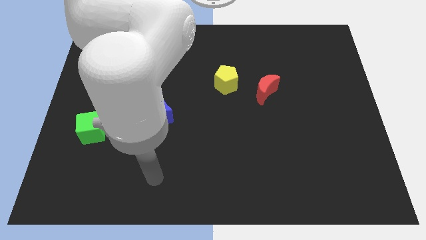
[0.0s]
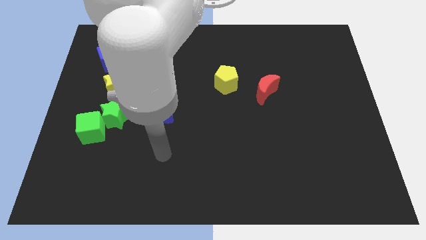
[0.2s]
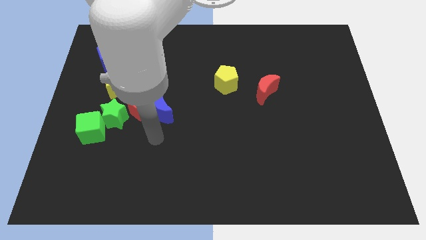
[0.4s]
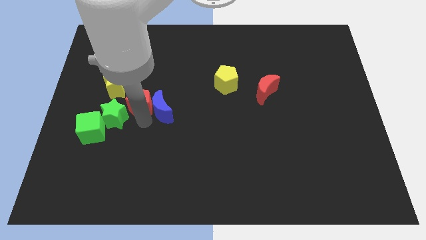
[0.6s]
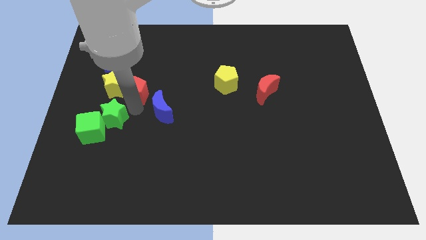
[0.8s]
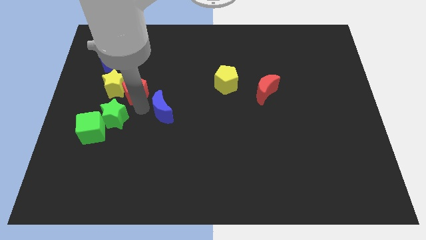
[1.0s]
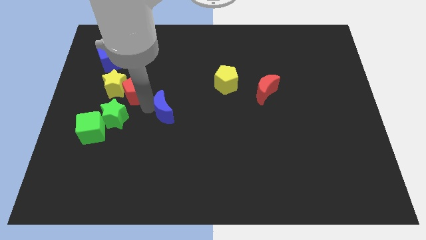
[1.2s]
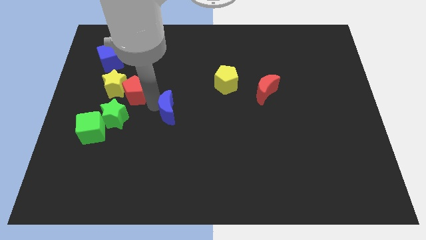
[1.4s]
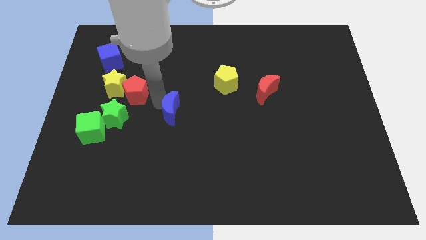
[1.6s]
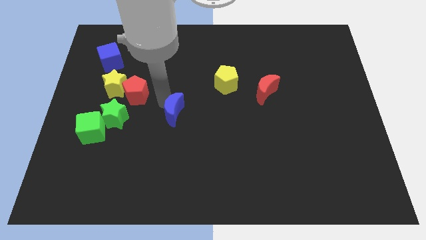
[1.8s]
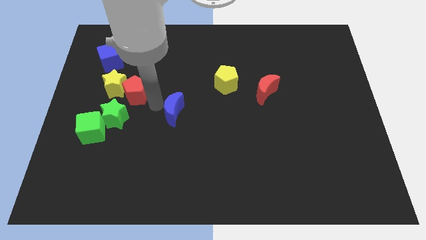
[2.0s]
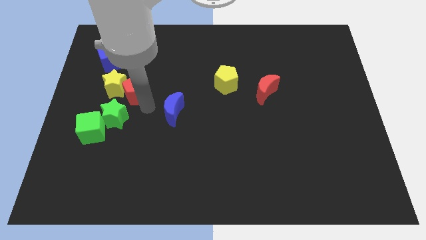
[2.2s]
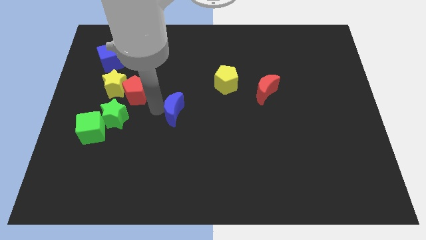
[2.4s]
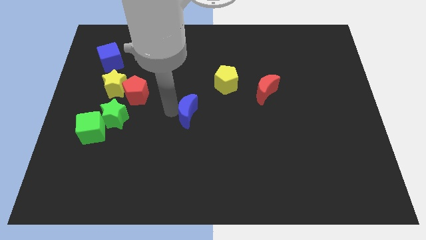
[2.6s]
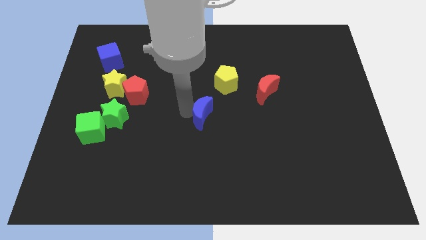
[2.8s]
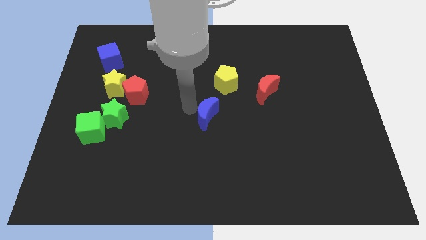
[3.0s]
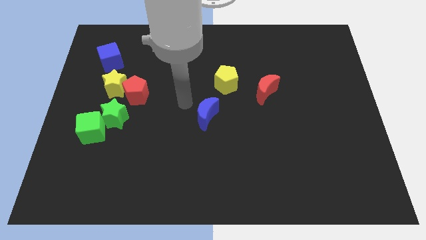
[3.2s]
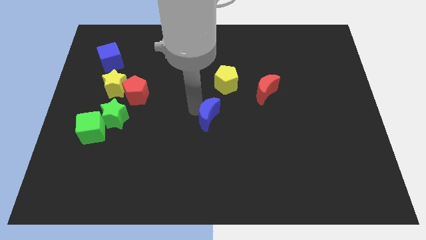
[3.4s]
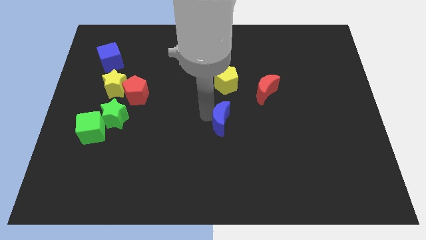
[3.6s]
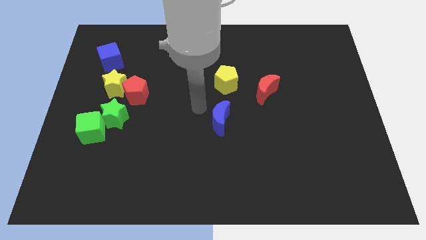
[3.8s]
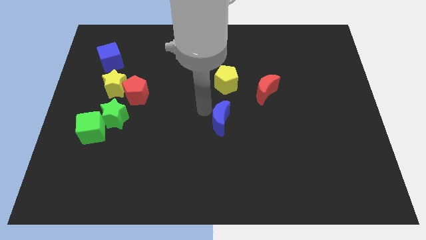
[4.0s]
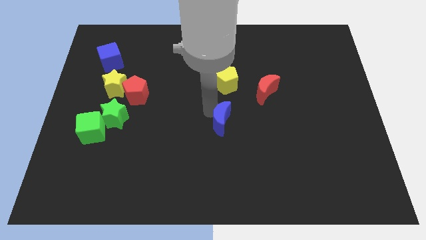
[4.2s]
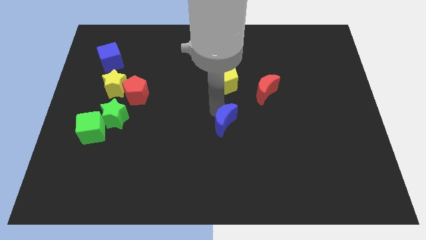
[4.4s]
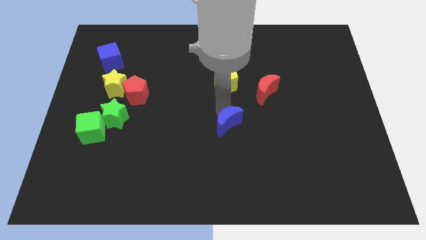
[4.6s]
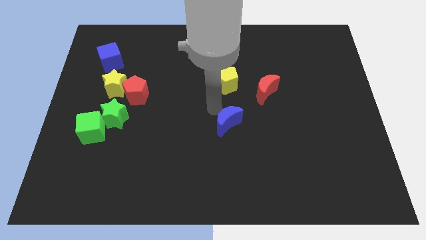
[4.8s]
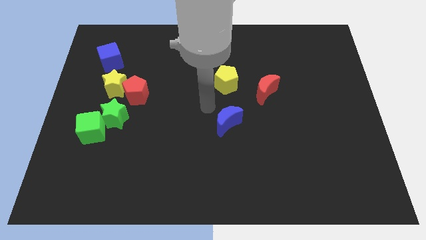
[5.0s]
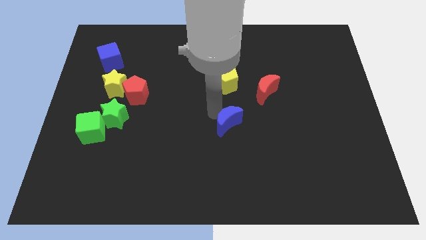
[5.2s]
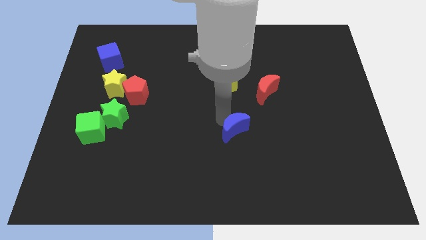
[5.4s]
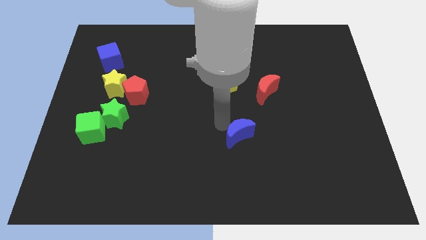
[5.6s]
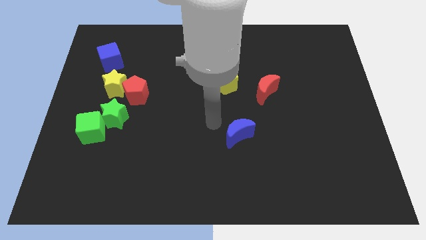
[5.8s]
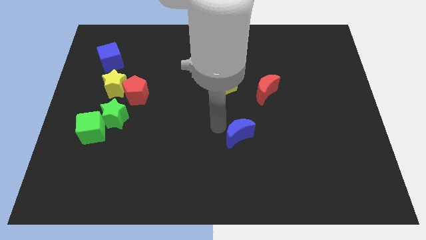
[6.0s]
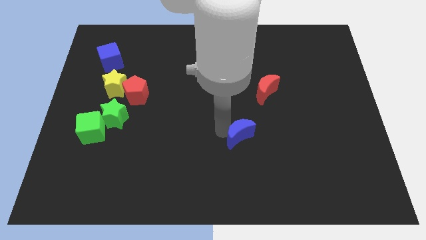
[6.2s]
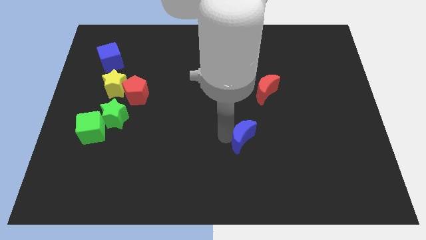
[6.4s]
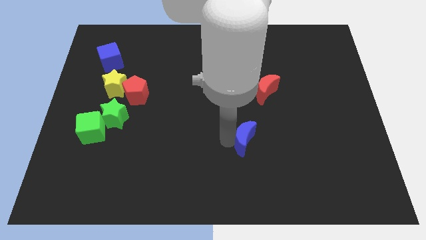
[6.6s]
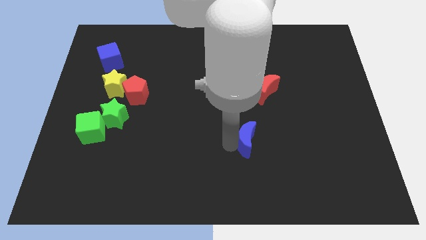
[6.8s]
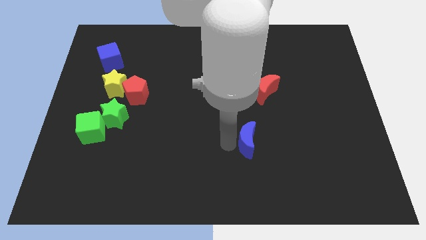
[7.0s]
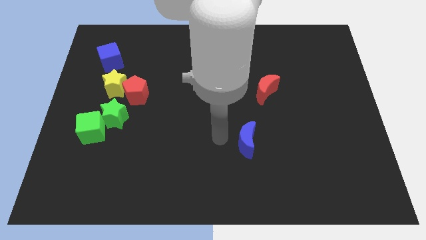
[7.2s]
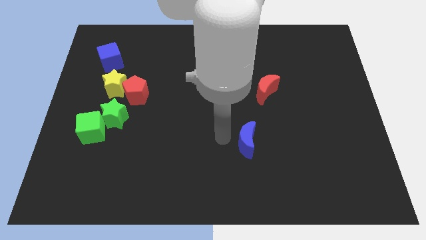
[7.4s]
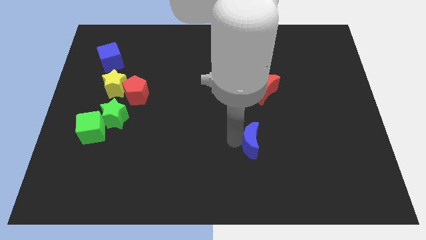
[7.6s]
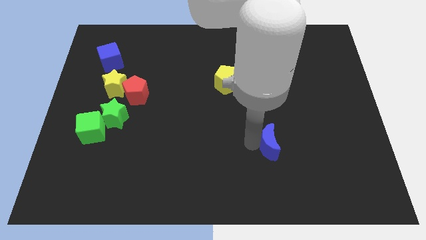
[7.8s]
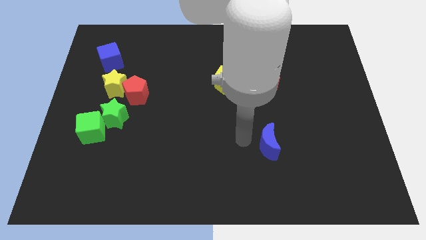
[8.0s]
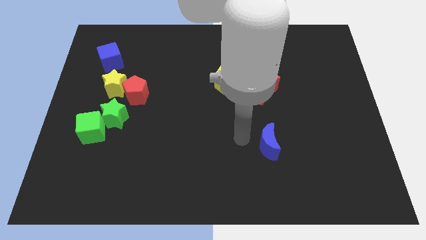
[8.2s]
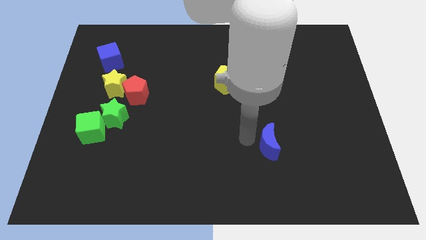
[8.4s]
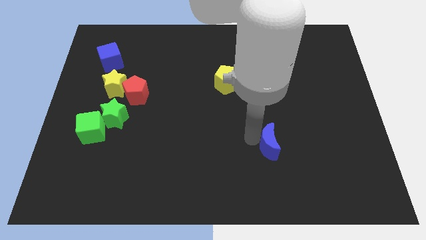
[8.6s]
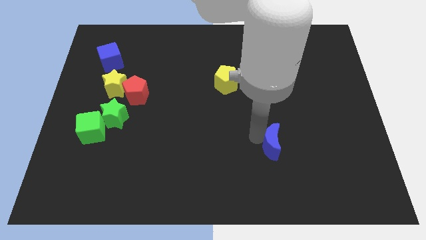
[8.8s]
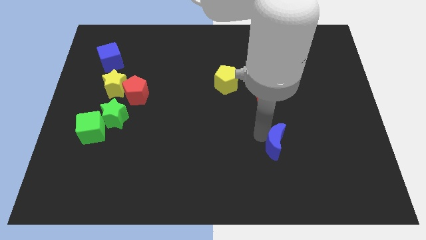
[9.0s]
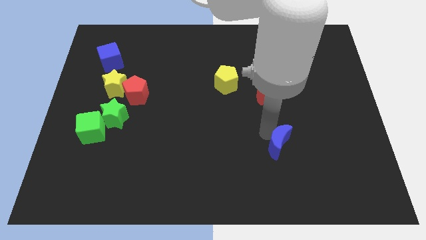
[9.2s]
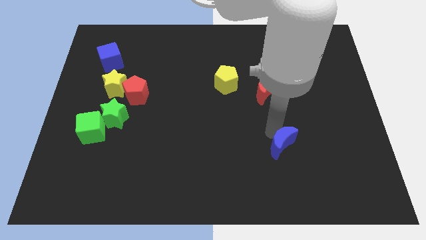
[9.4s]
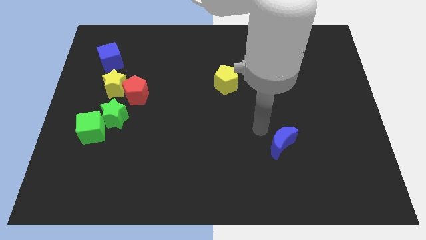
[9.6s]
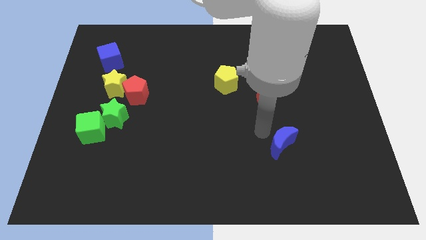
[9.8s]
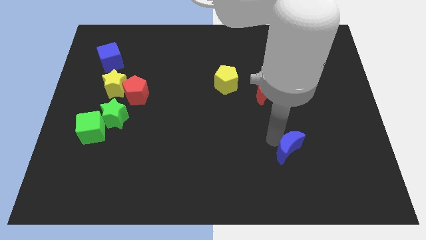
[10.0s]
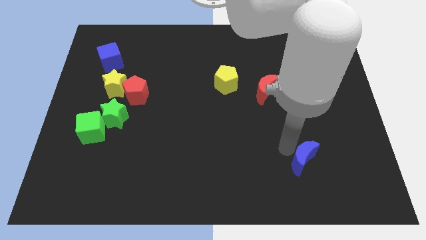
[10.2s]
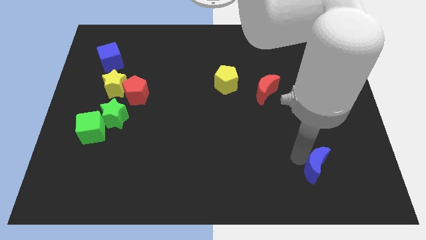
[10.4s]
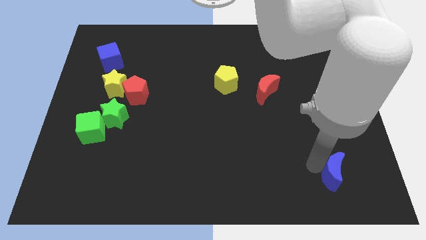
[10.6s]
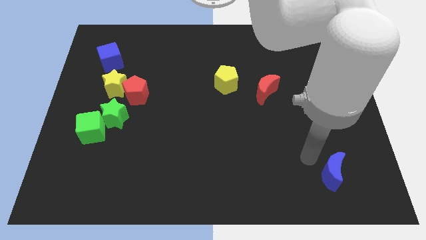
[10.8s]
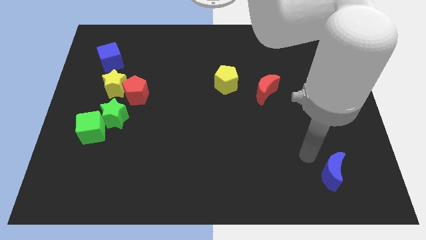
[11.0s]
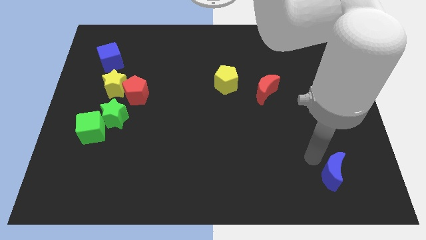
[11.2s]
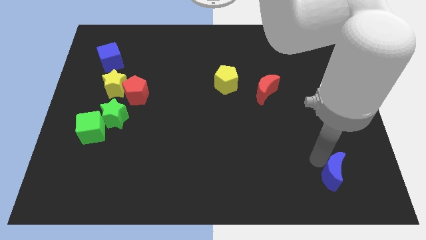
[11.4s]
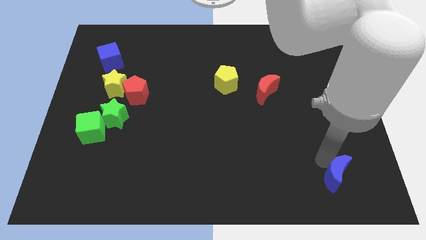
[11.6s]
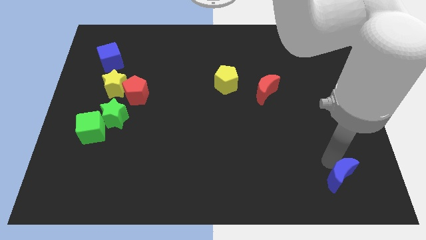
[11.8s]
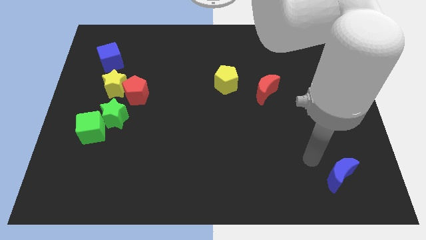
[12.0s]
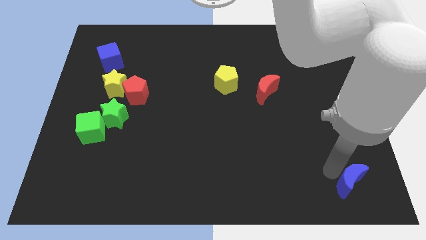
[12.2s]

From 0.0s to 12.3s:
push the blue moon to the lower right corner

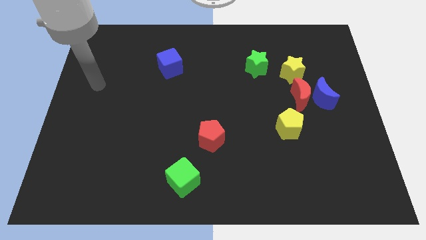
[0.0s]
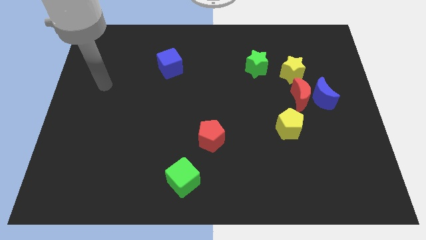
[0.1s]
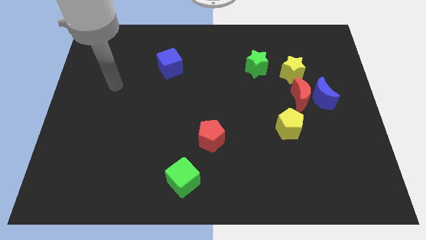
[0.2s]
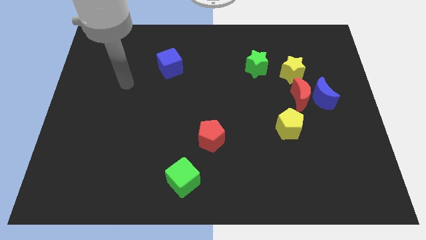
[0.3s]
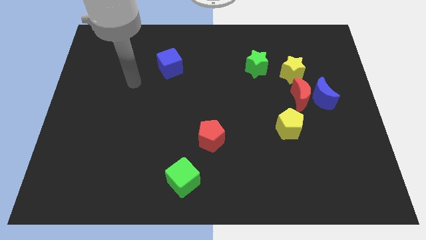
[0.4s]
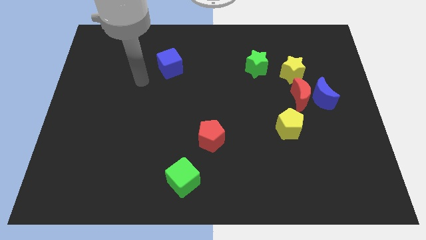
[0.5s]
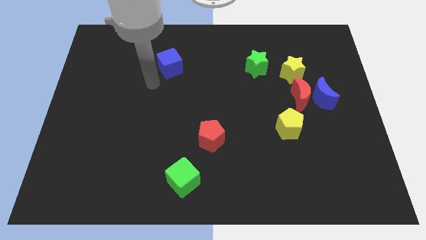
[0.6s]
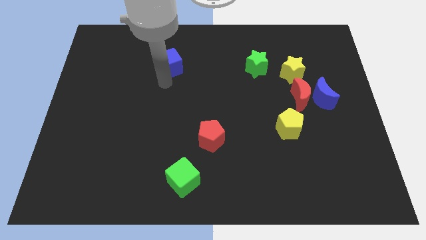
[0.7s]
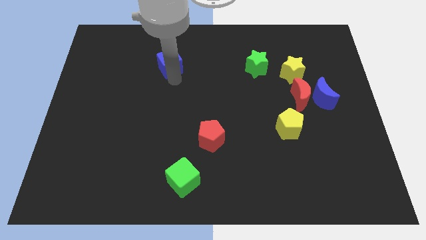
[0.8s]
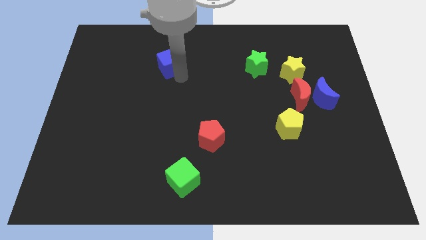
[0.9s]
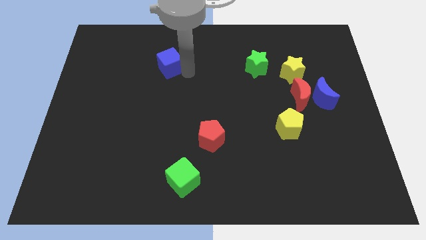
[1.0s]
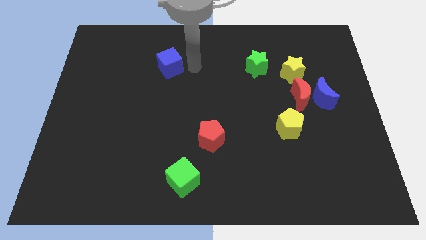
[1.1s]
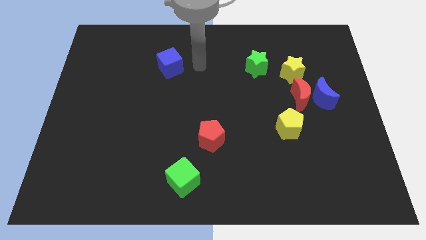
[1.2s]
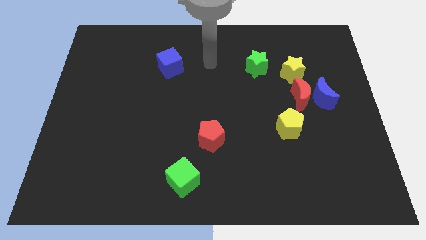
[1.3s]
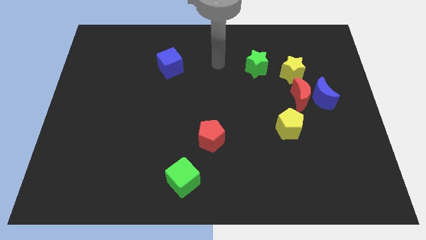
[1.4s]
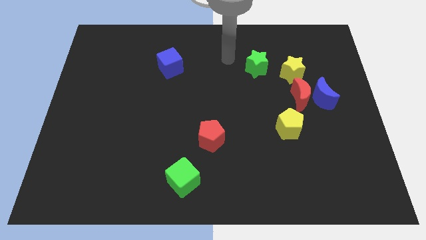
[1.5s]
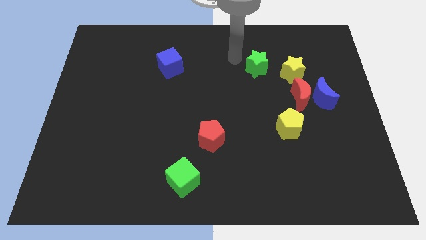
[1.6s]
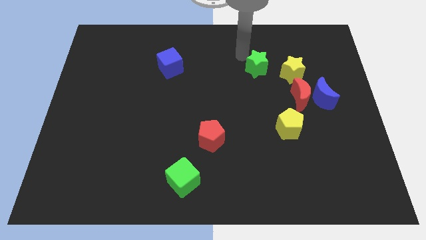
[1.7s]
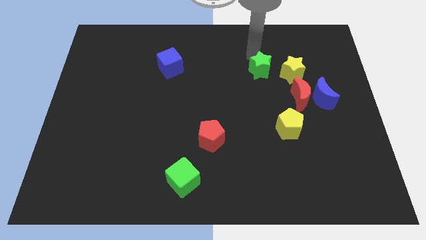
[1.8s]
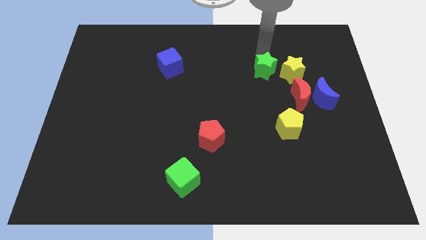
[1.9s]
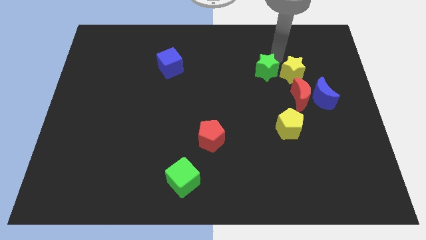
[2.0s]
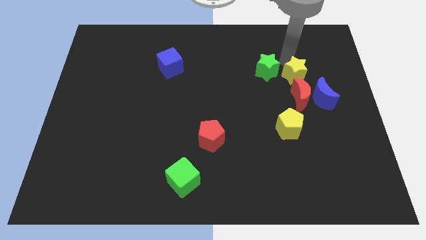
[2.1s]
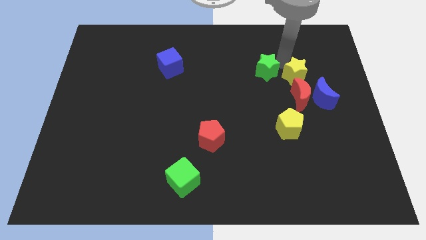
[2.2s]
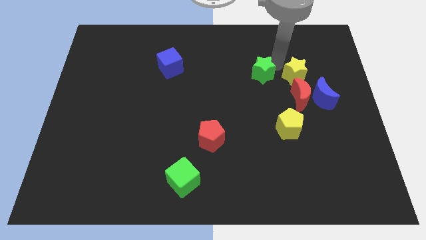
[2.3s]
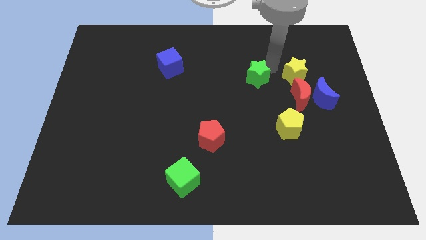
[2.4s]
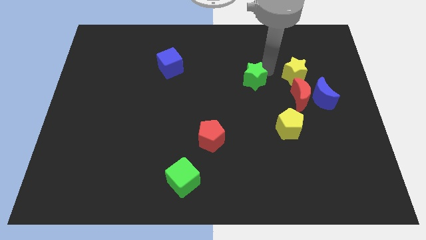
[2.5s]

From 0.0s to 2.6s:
put the green star to the center of the board
